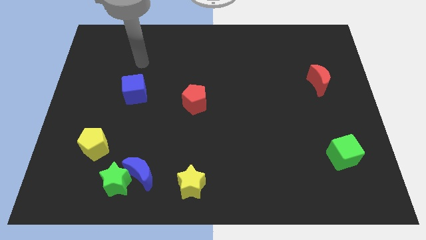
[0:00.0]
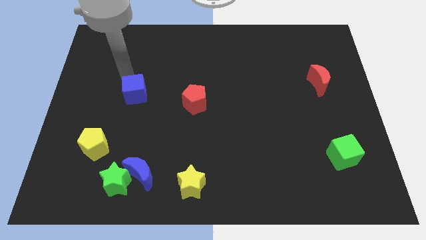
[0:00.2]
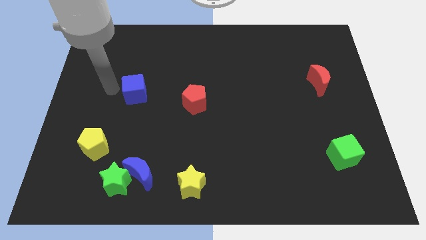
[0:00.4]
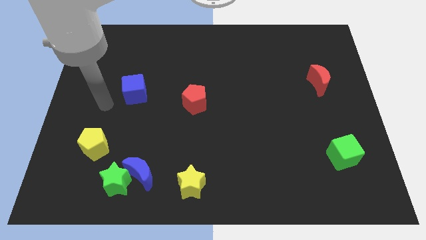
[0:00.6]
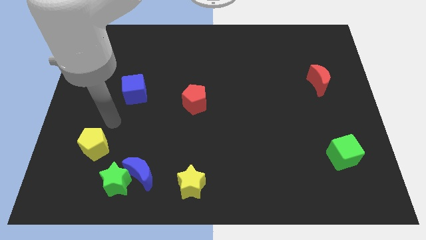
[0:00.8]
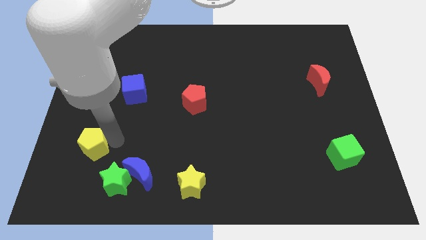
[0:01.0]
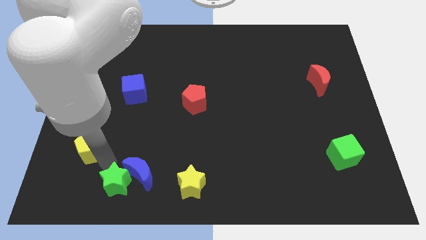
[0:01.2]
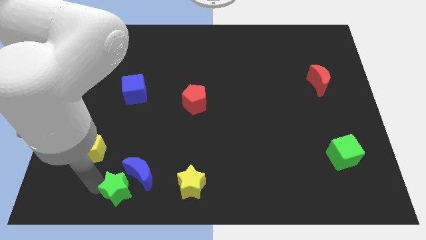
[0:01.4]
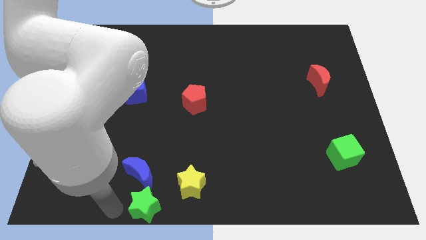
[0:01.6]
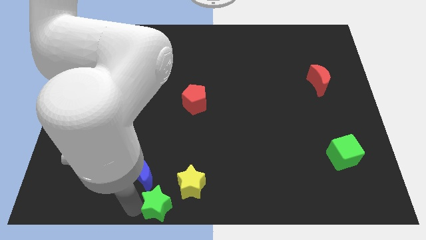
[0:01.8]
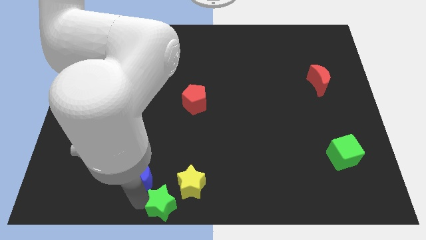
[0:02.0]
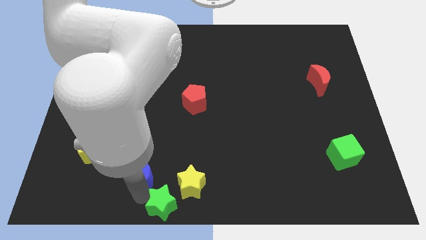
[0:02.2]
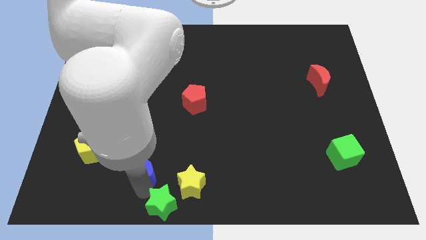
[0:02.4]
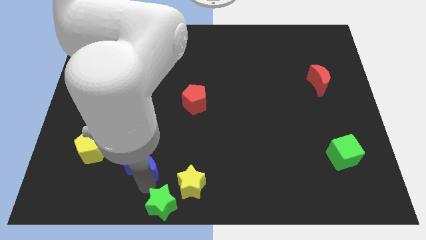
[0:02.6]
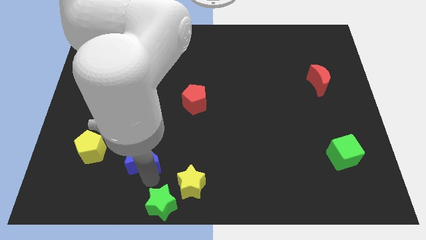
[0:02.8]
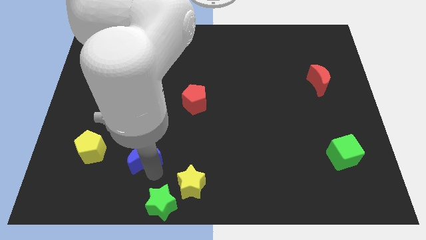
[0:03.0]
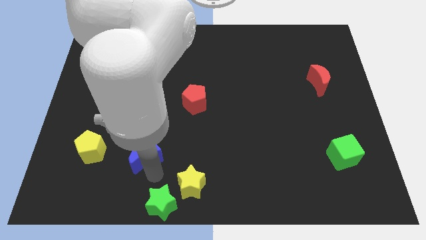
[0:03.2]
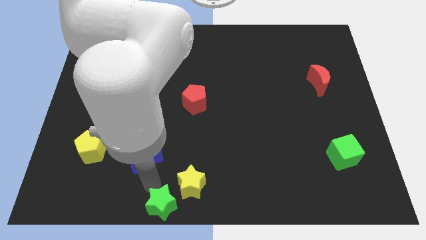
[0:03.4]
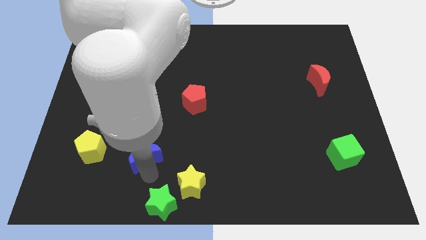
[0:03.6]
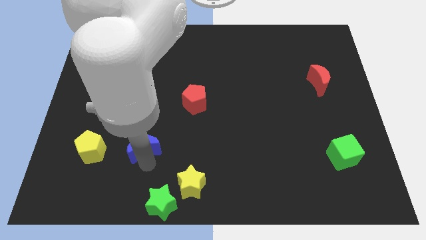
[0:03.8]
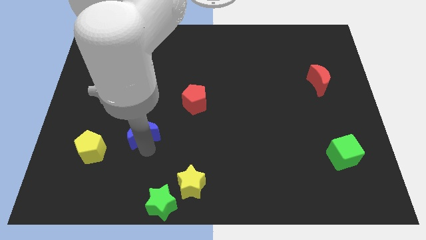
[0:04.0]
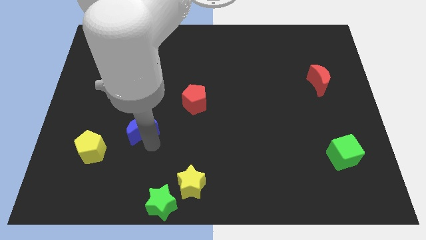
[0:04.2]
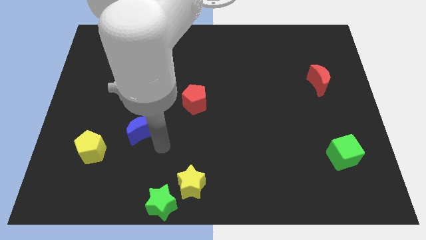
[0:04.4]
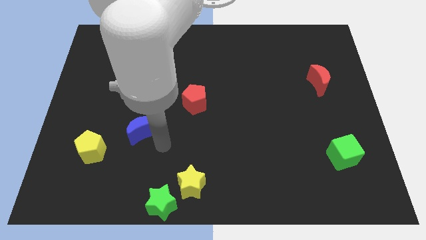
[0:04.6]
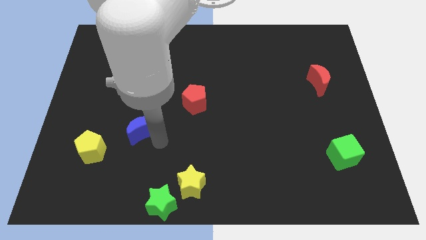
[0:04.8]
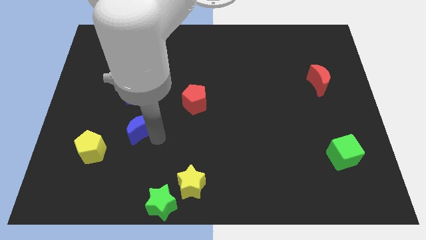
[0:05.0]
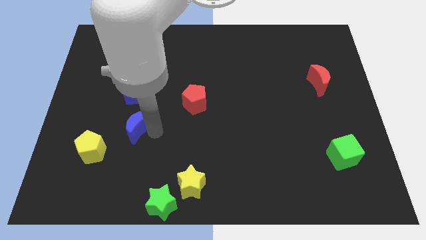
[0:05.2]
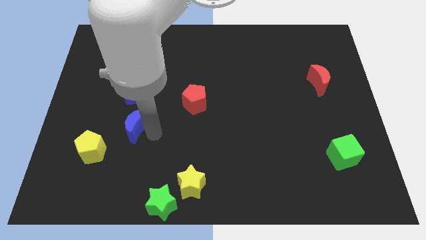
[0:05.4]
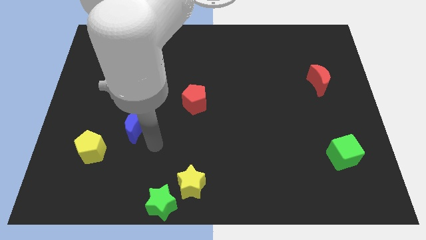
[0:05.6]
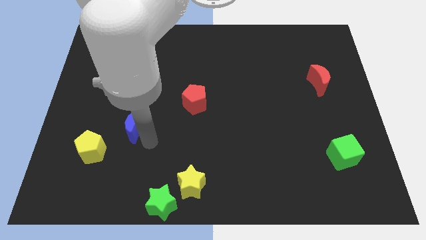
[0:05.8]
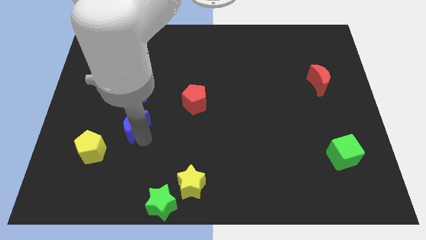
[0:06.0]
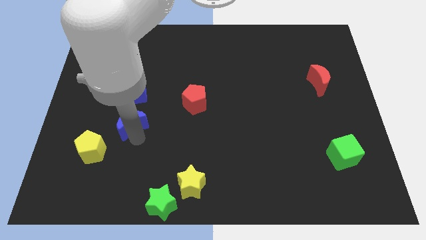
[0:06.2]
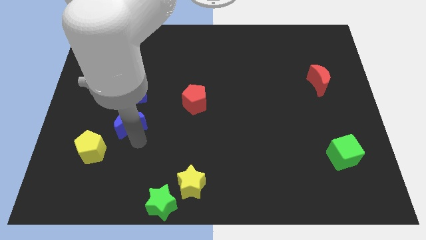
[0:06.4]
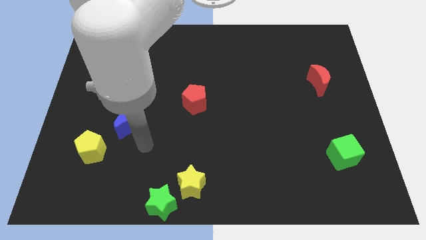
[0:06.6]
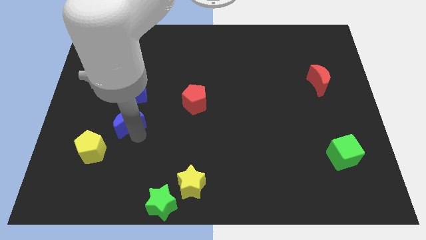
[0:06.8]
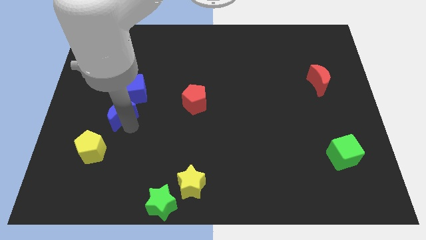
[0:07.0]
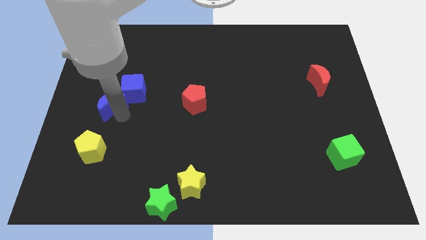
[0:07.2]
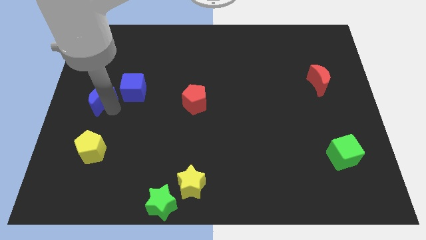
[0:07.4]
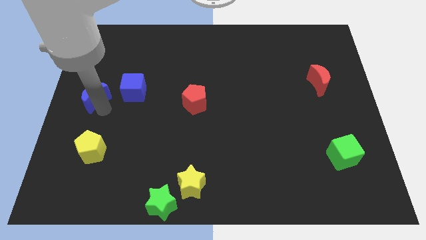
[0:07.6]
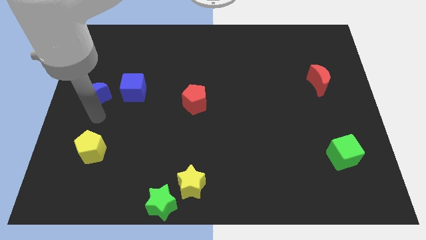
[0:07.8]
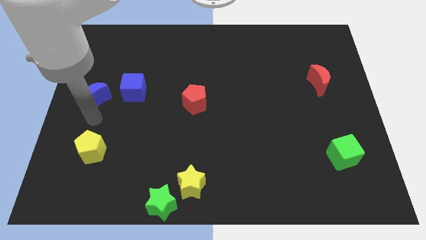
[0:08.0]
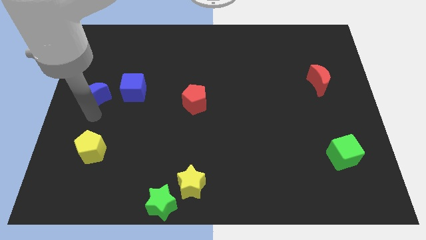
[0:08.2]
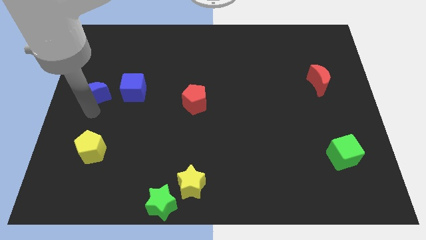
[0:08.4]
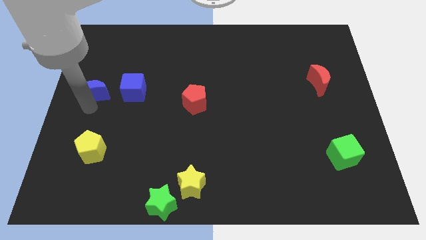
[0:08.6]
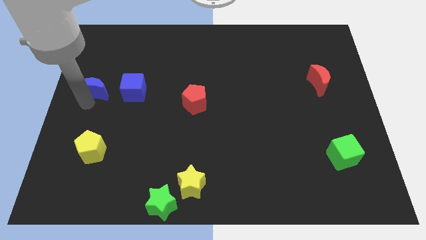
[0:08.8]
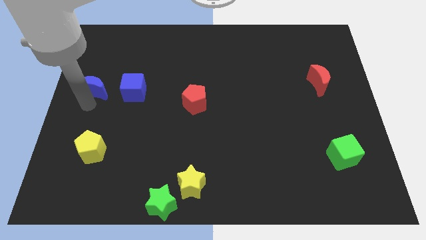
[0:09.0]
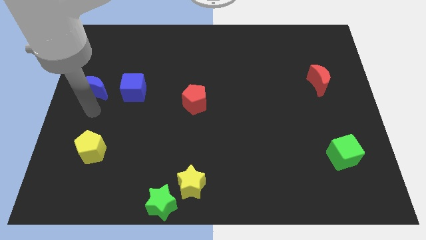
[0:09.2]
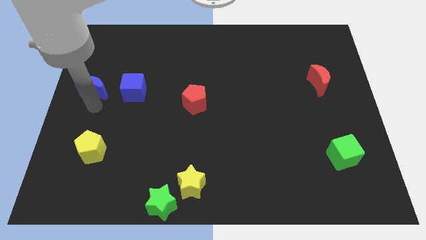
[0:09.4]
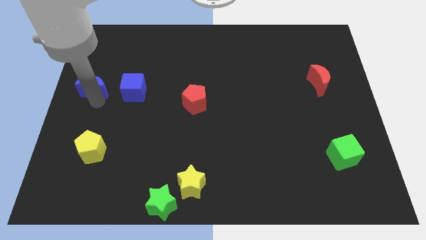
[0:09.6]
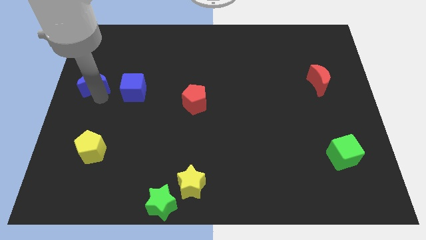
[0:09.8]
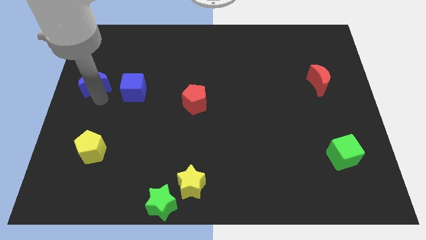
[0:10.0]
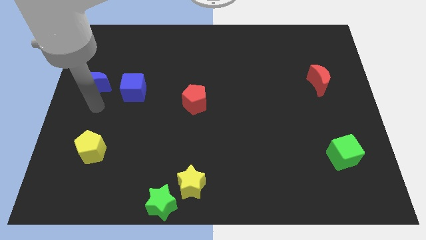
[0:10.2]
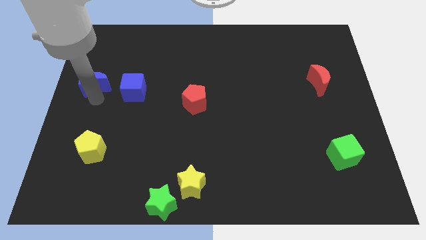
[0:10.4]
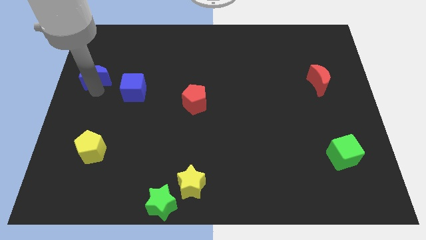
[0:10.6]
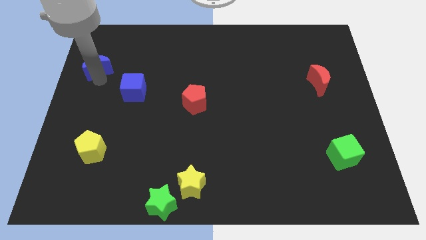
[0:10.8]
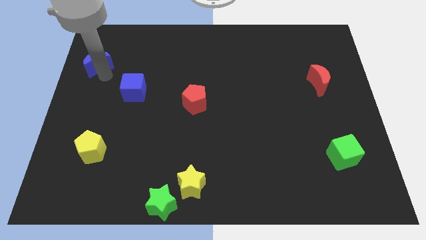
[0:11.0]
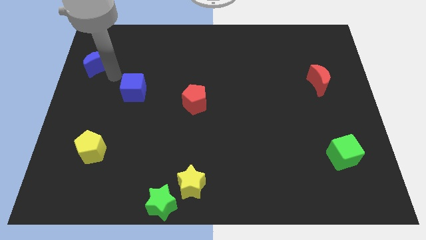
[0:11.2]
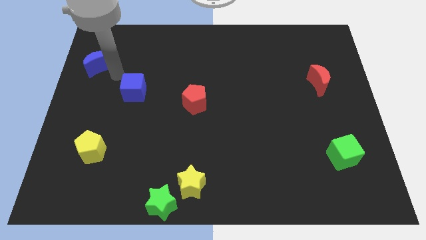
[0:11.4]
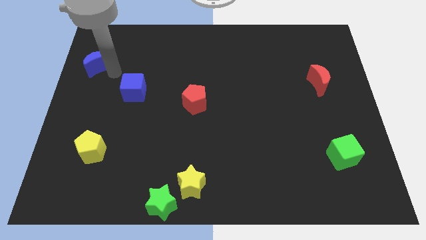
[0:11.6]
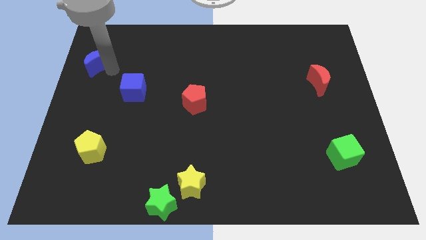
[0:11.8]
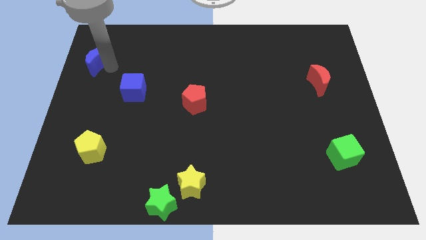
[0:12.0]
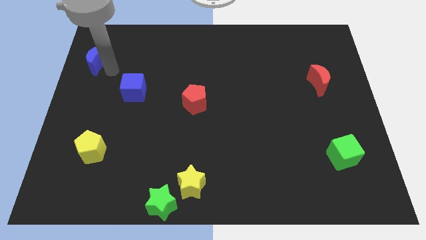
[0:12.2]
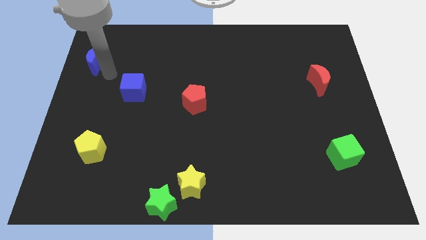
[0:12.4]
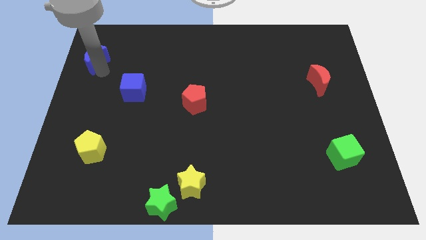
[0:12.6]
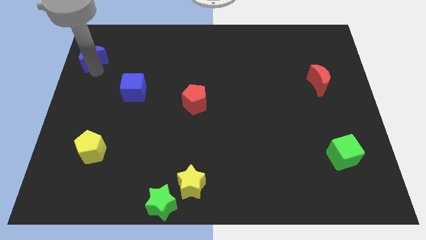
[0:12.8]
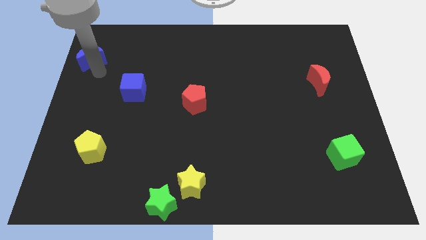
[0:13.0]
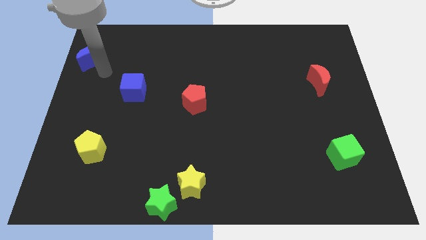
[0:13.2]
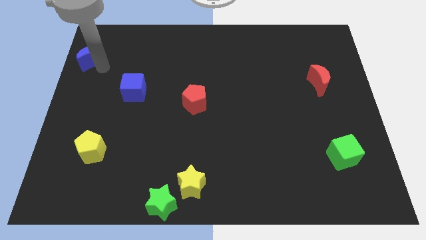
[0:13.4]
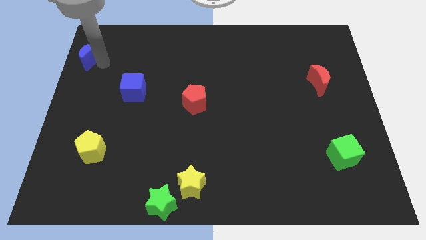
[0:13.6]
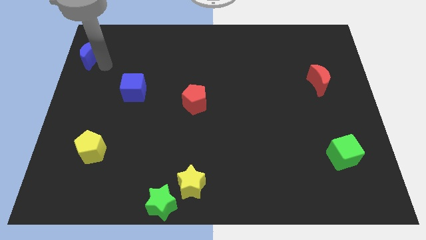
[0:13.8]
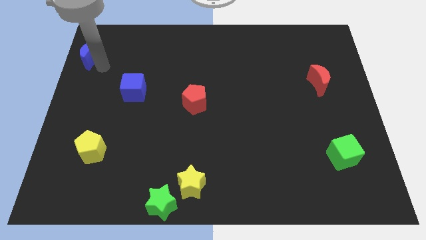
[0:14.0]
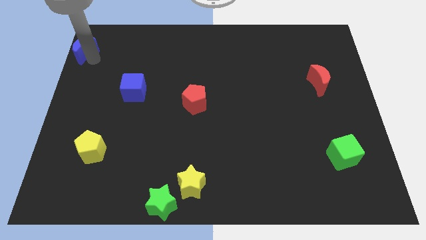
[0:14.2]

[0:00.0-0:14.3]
push the blue moon to the top left of the board
